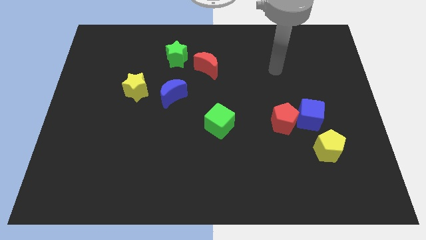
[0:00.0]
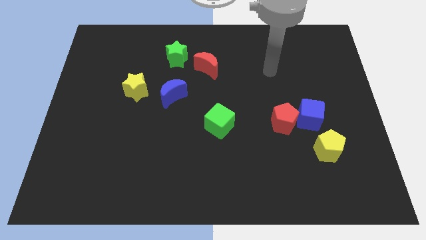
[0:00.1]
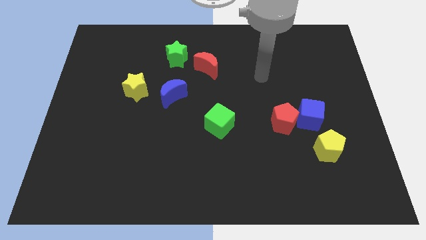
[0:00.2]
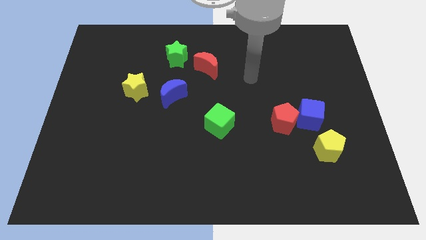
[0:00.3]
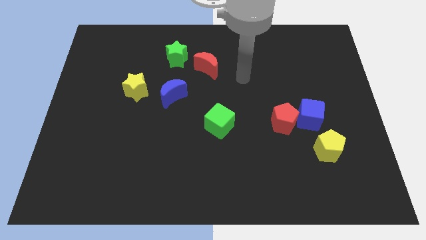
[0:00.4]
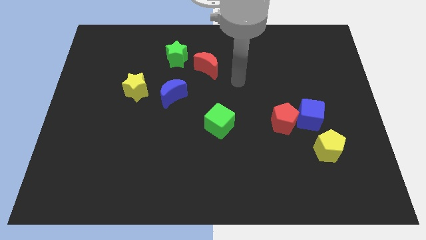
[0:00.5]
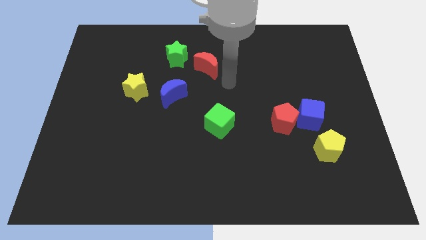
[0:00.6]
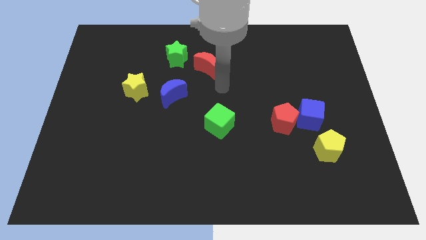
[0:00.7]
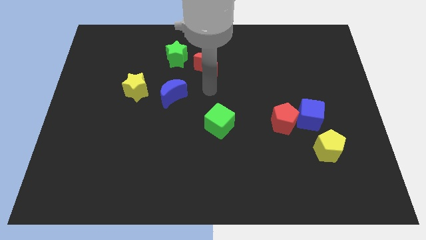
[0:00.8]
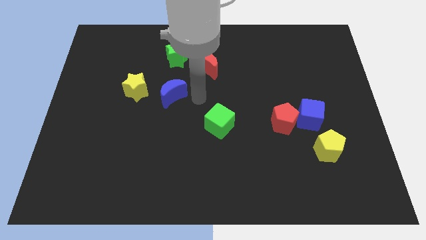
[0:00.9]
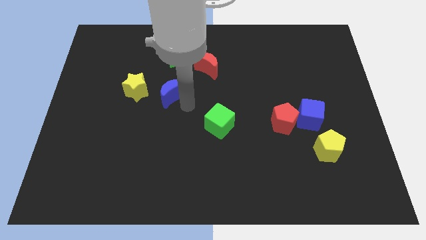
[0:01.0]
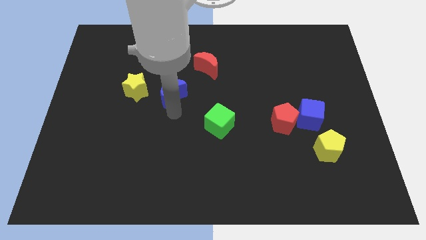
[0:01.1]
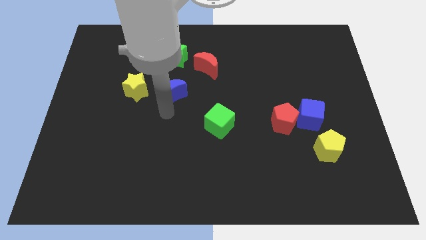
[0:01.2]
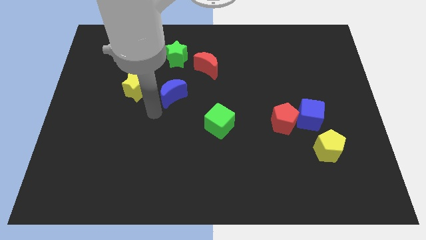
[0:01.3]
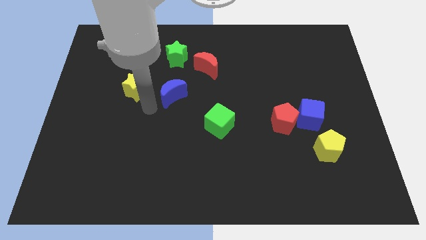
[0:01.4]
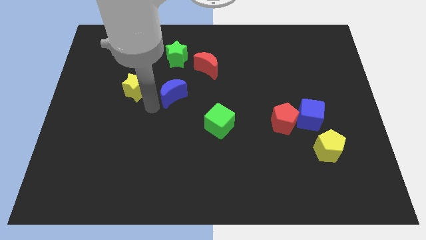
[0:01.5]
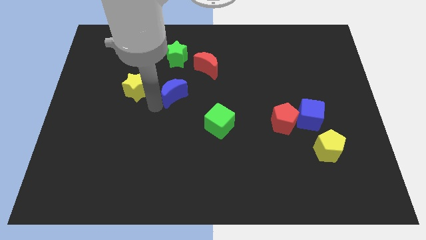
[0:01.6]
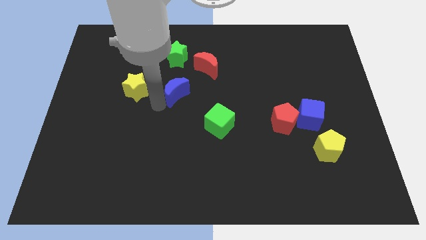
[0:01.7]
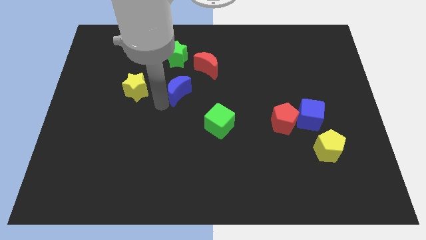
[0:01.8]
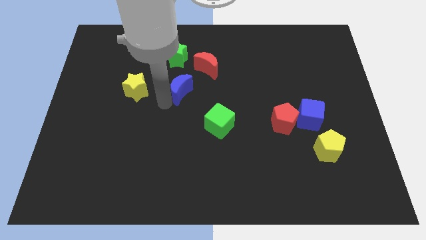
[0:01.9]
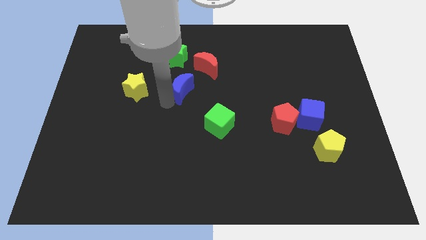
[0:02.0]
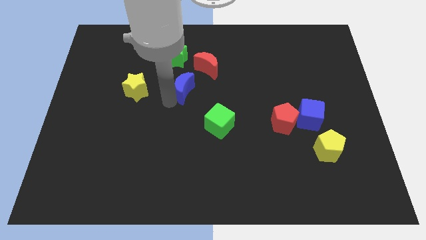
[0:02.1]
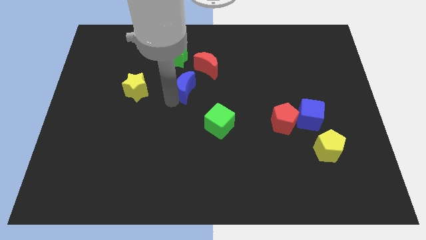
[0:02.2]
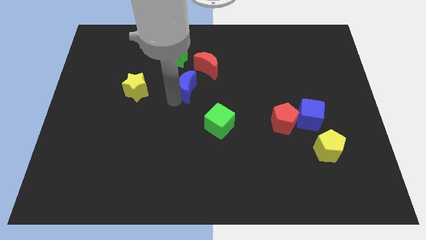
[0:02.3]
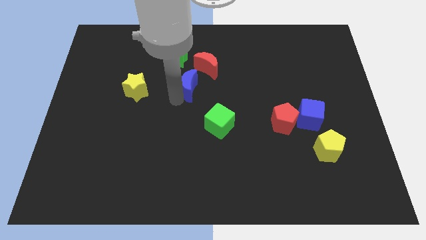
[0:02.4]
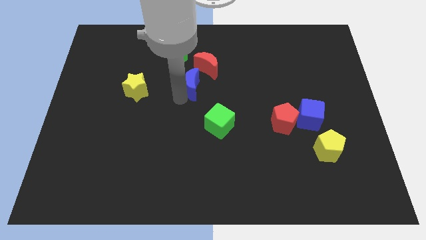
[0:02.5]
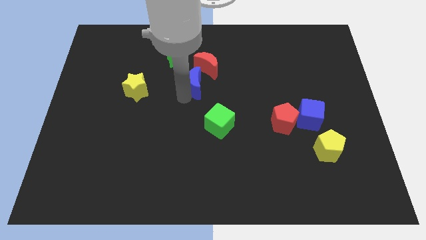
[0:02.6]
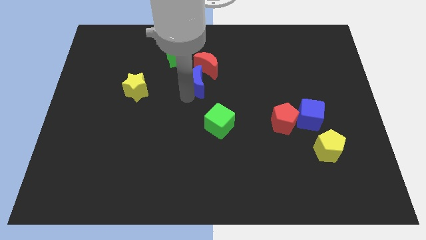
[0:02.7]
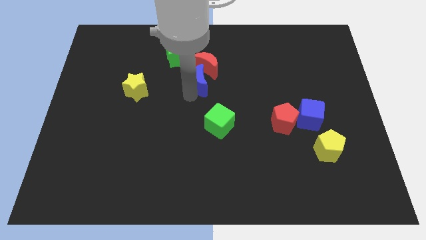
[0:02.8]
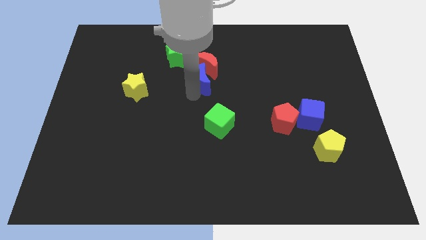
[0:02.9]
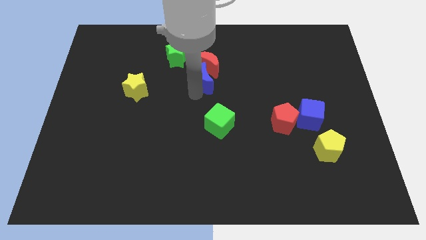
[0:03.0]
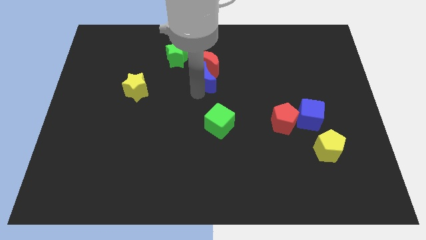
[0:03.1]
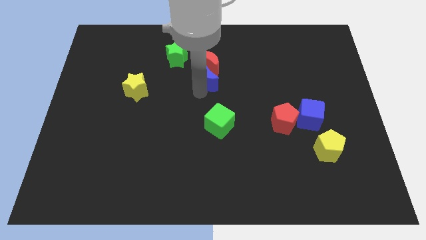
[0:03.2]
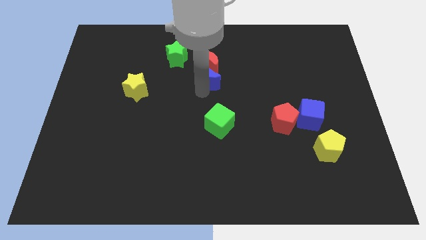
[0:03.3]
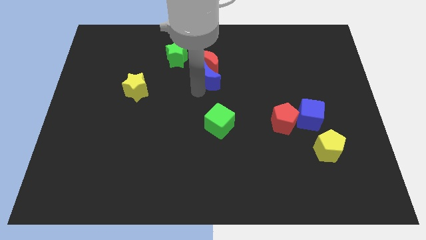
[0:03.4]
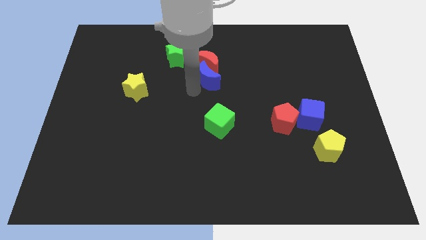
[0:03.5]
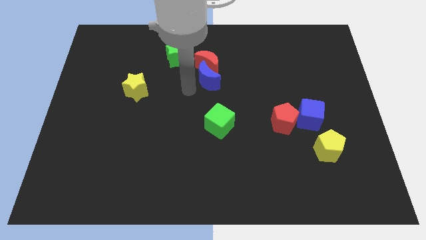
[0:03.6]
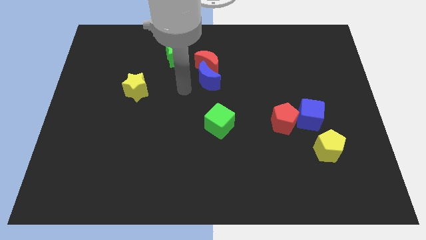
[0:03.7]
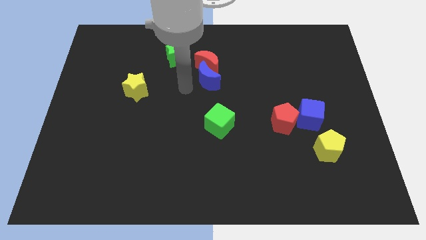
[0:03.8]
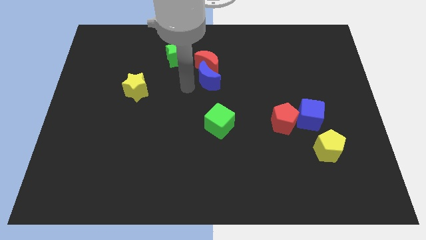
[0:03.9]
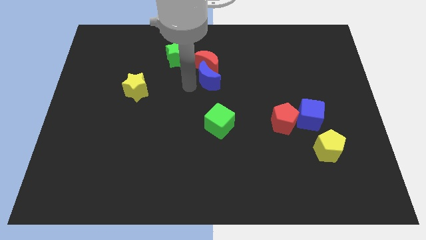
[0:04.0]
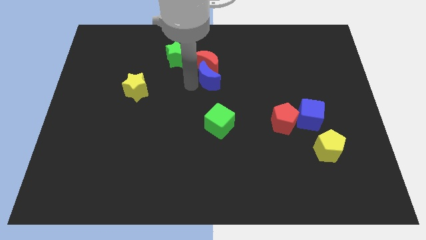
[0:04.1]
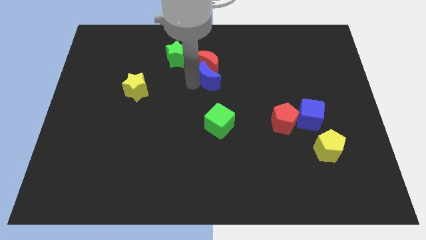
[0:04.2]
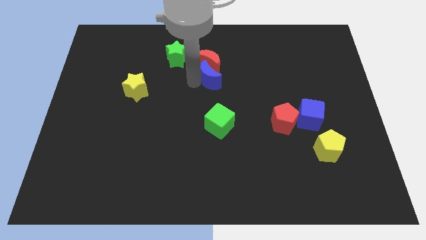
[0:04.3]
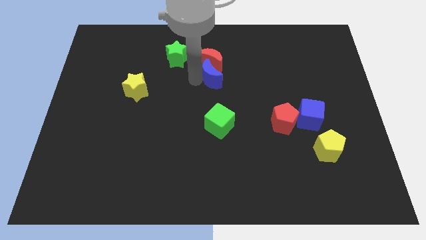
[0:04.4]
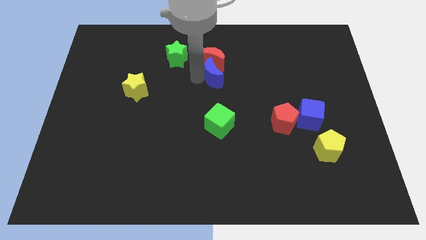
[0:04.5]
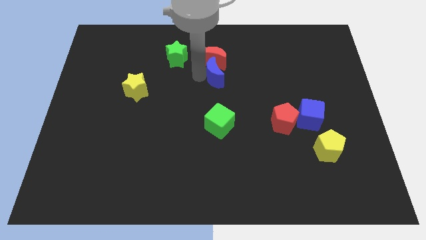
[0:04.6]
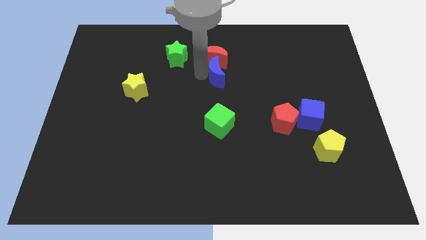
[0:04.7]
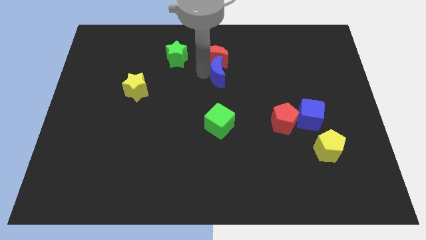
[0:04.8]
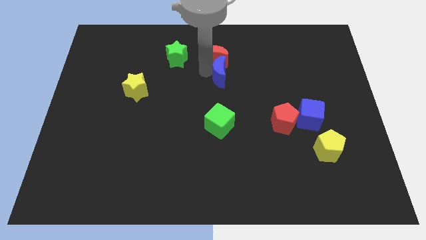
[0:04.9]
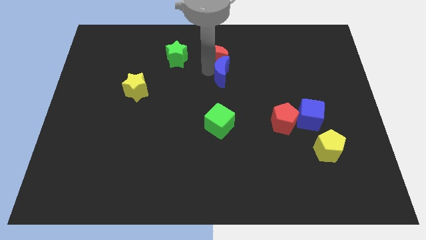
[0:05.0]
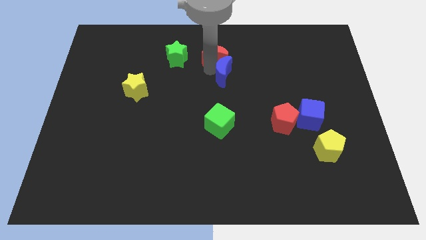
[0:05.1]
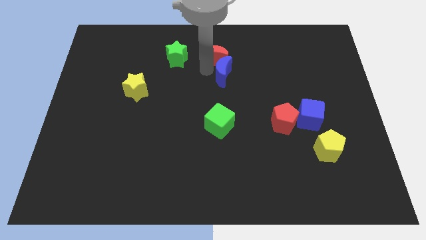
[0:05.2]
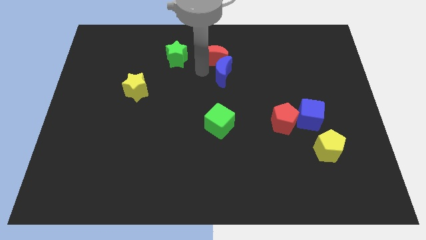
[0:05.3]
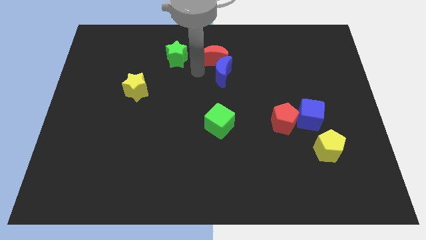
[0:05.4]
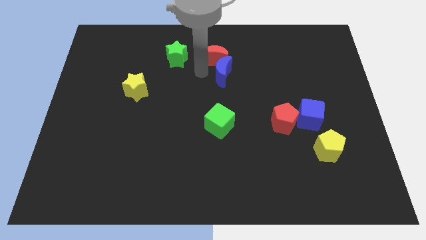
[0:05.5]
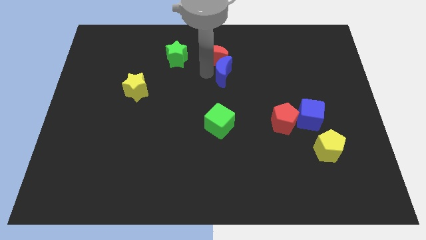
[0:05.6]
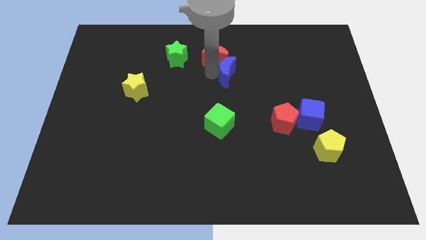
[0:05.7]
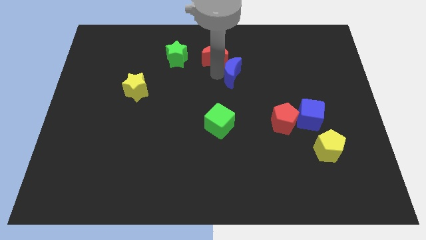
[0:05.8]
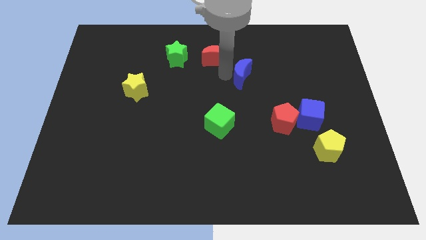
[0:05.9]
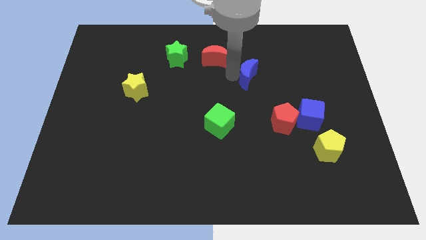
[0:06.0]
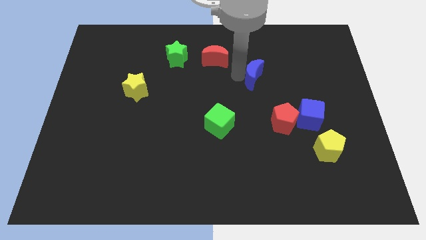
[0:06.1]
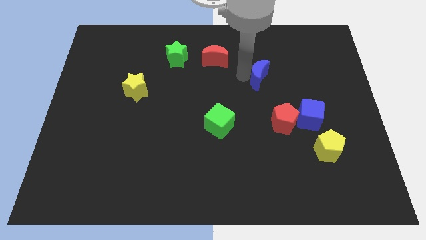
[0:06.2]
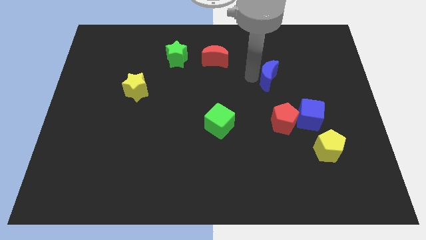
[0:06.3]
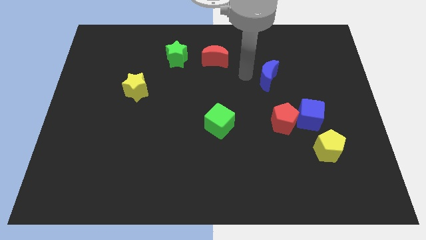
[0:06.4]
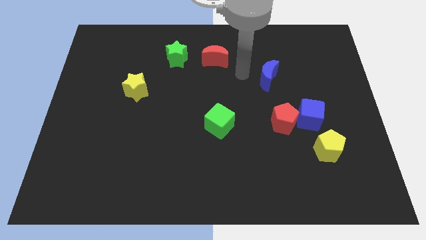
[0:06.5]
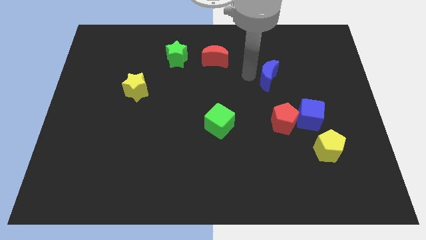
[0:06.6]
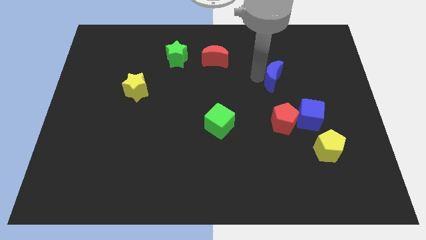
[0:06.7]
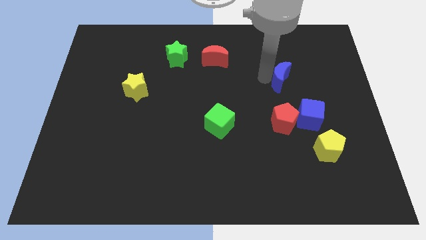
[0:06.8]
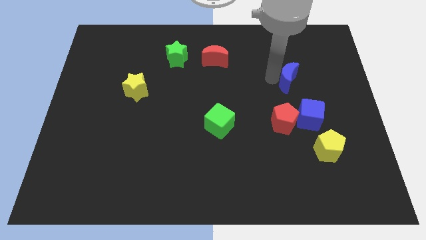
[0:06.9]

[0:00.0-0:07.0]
push the blue moon above the blue cube

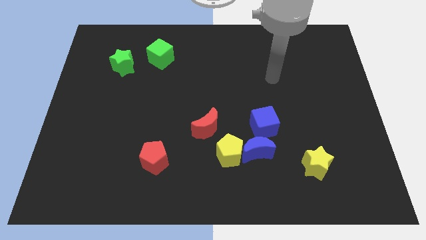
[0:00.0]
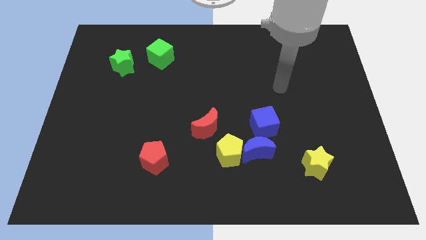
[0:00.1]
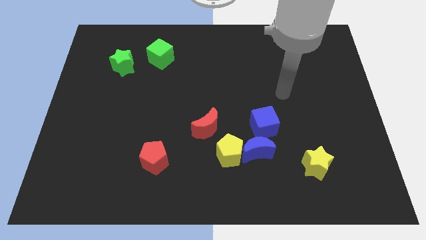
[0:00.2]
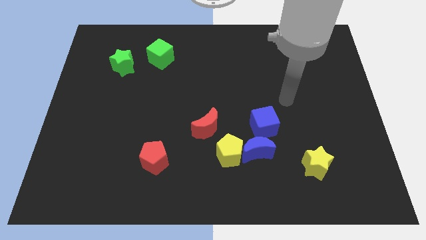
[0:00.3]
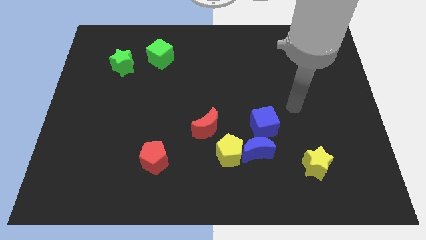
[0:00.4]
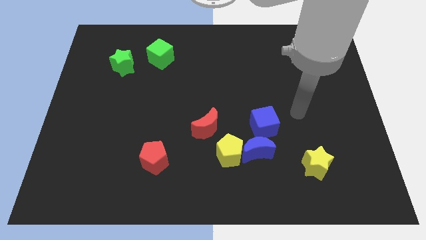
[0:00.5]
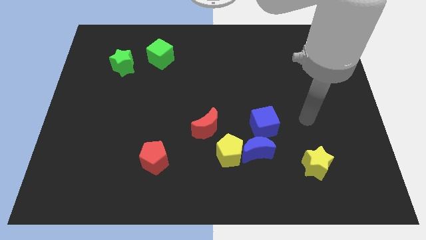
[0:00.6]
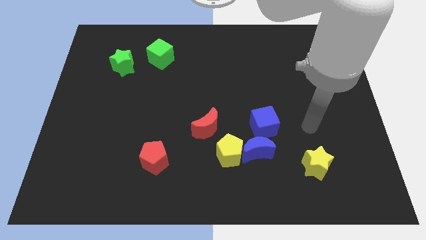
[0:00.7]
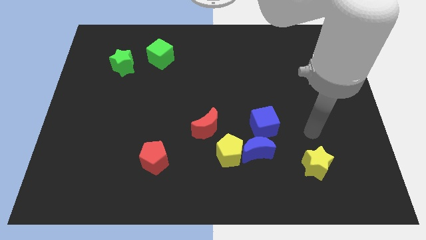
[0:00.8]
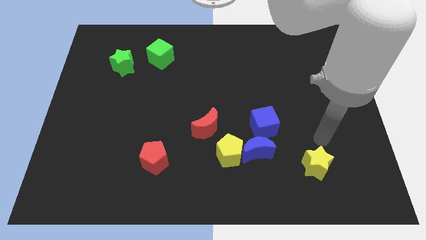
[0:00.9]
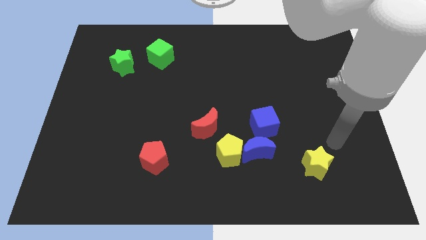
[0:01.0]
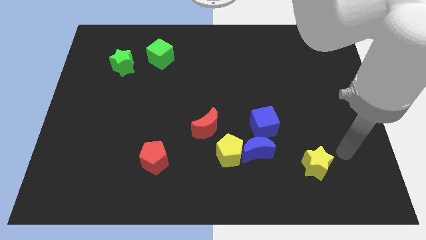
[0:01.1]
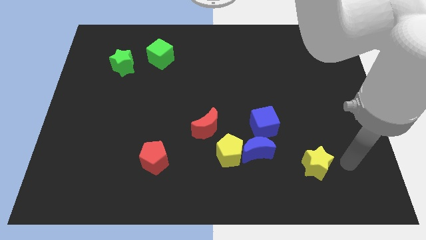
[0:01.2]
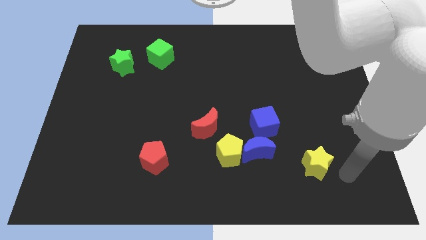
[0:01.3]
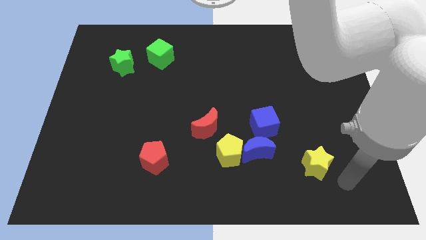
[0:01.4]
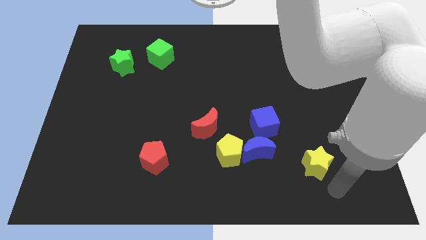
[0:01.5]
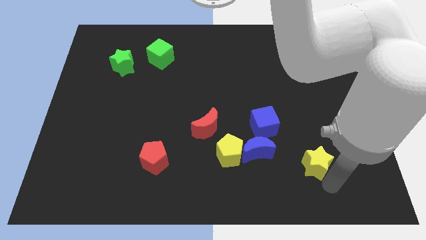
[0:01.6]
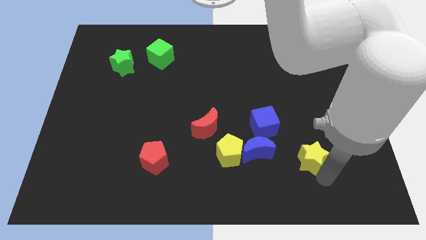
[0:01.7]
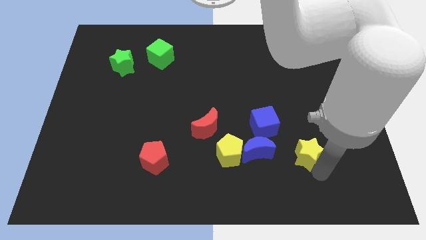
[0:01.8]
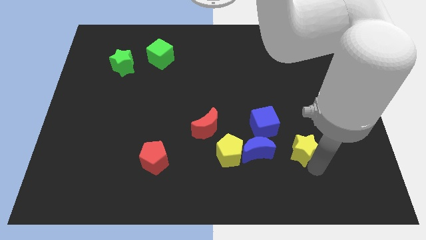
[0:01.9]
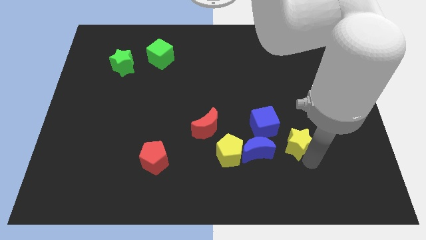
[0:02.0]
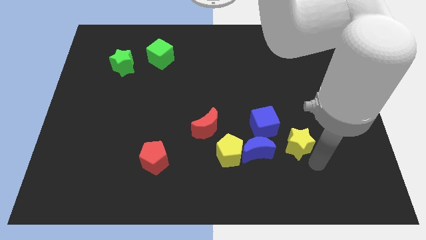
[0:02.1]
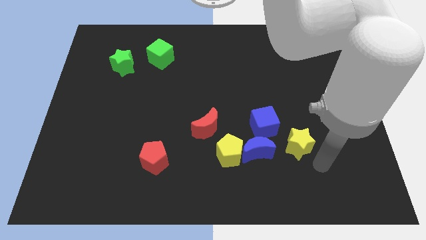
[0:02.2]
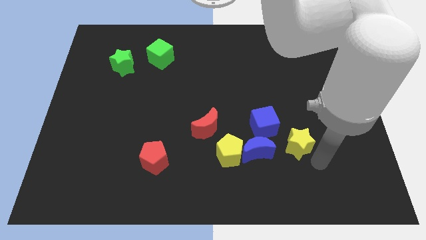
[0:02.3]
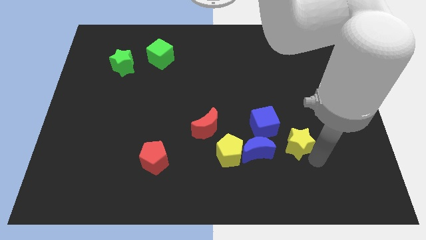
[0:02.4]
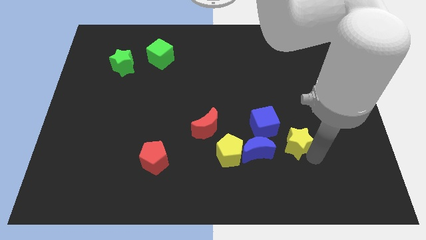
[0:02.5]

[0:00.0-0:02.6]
slide the yellow star to the top right of the blue moon
